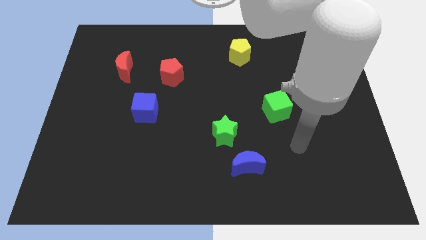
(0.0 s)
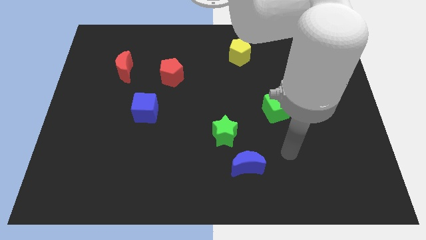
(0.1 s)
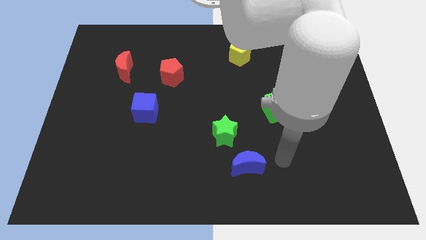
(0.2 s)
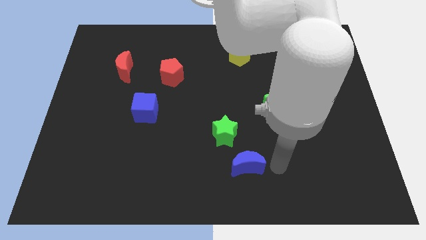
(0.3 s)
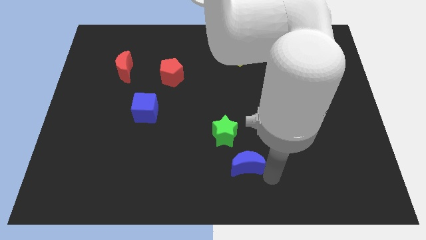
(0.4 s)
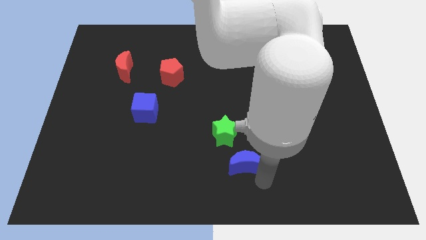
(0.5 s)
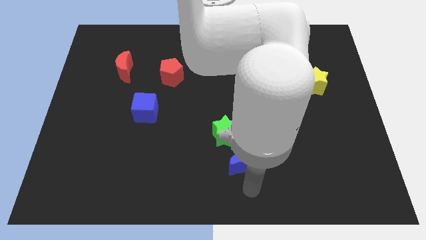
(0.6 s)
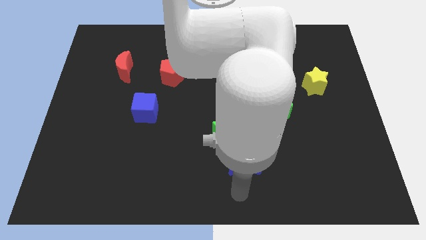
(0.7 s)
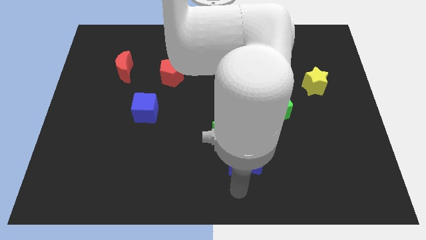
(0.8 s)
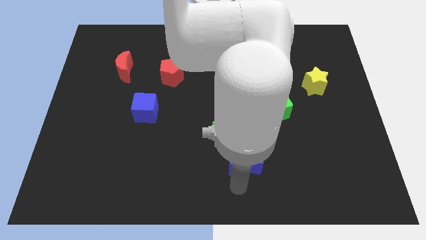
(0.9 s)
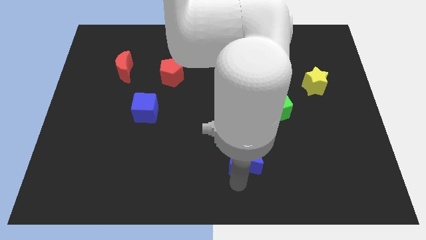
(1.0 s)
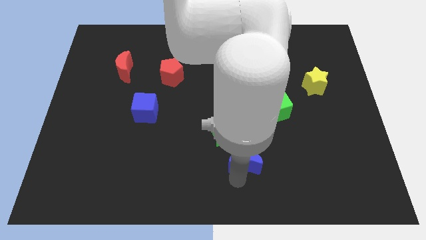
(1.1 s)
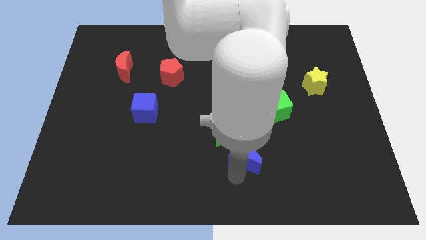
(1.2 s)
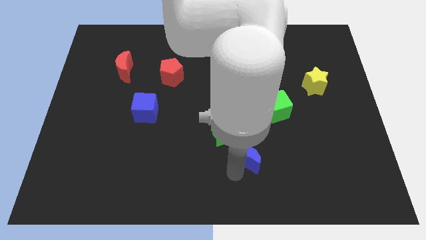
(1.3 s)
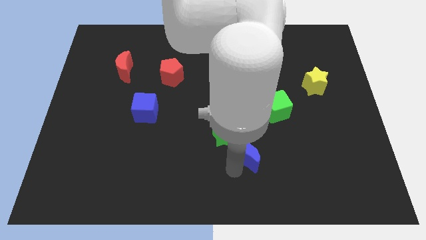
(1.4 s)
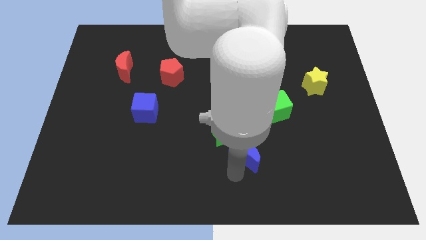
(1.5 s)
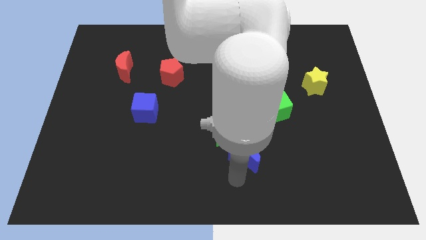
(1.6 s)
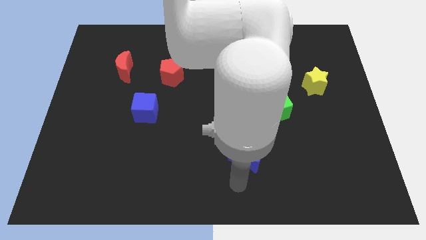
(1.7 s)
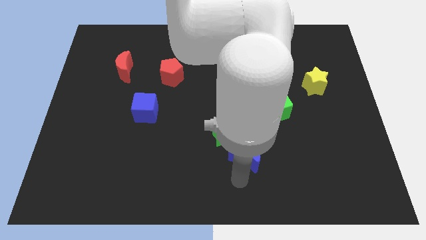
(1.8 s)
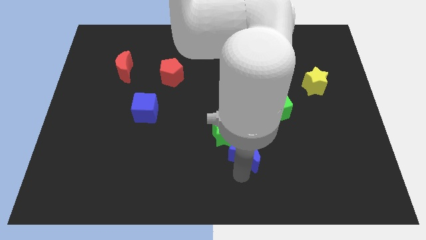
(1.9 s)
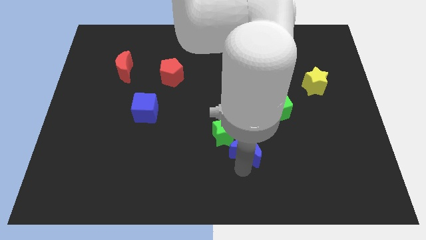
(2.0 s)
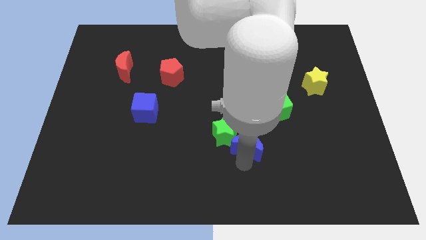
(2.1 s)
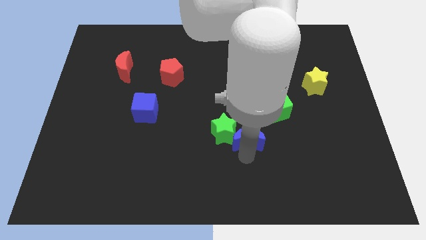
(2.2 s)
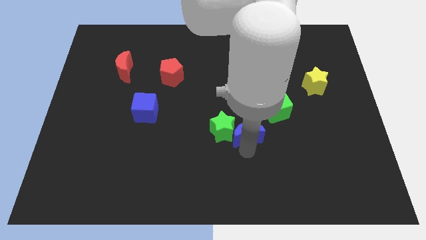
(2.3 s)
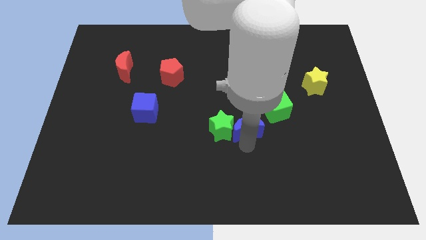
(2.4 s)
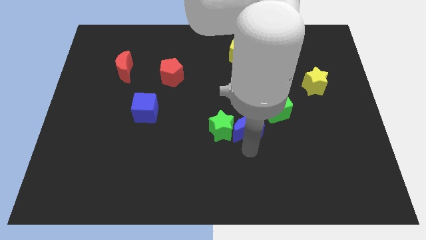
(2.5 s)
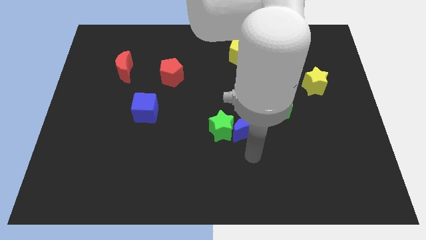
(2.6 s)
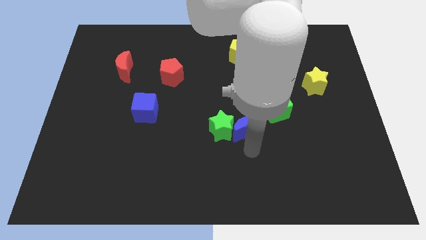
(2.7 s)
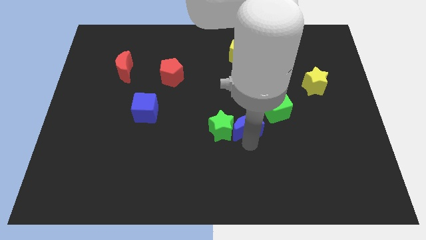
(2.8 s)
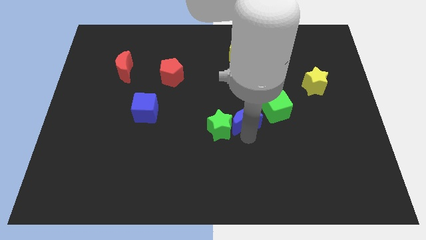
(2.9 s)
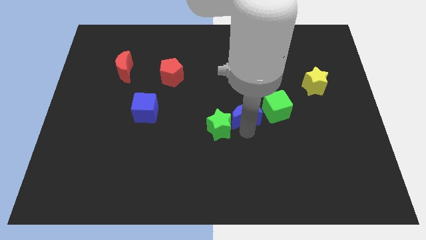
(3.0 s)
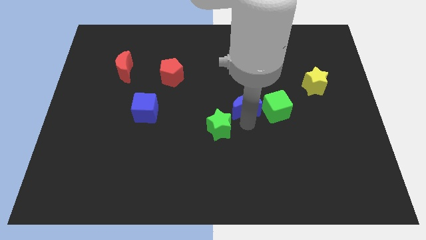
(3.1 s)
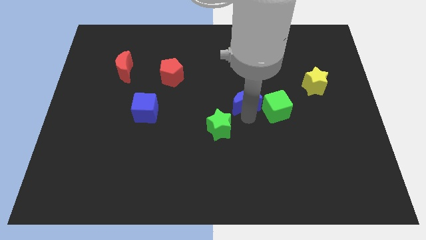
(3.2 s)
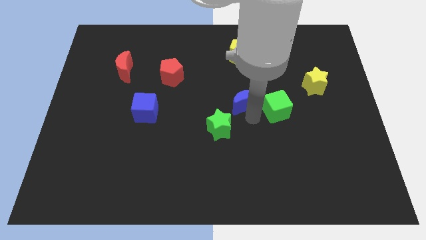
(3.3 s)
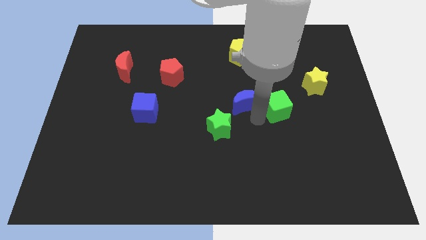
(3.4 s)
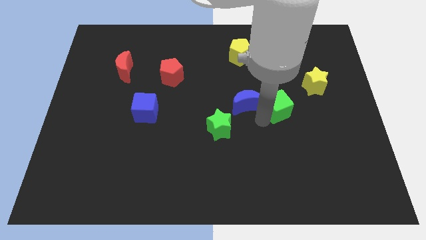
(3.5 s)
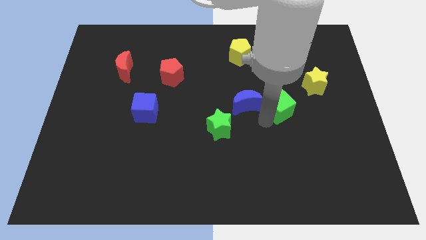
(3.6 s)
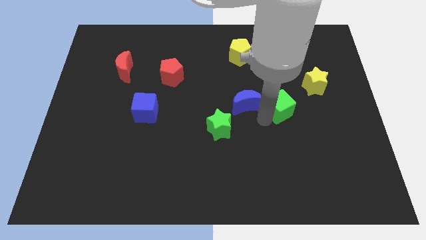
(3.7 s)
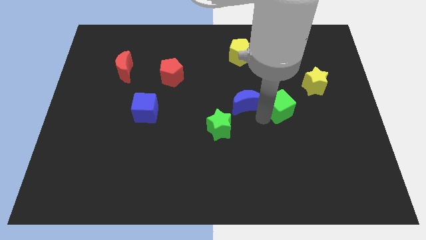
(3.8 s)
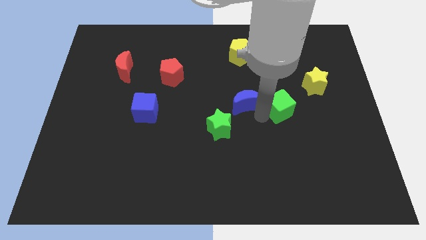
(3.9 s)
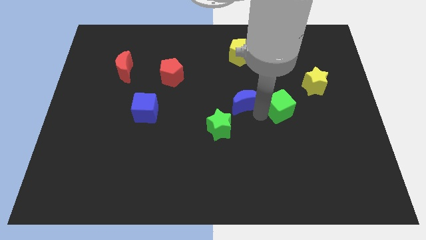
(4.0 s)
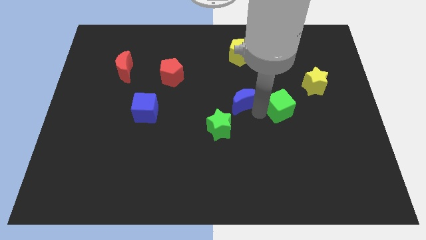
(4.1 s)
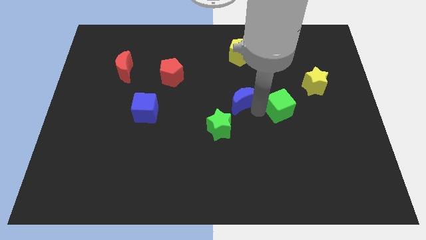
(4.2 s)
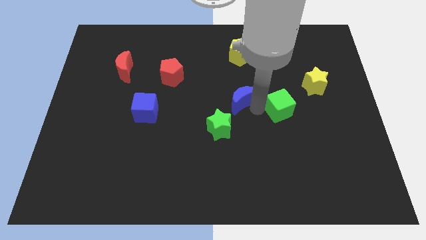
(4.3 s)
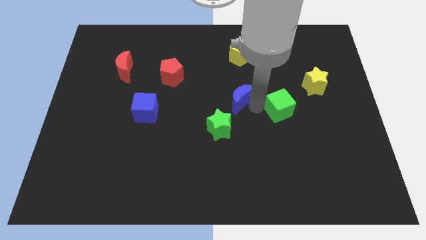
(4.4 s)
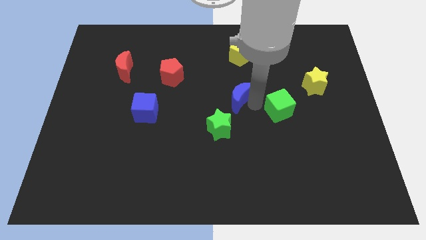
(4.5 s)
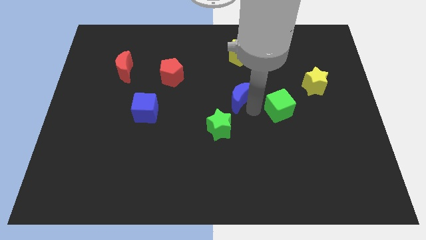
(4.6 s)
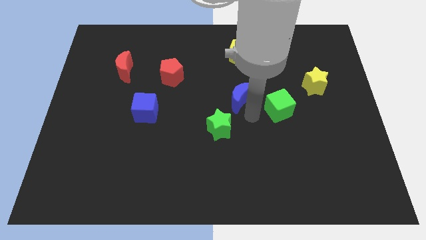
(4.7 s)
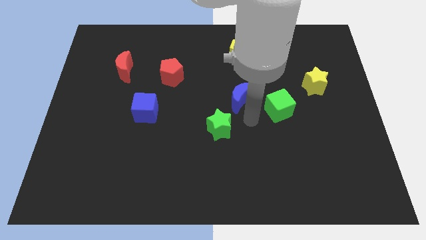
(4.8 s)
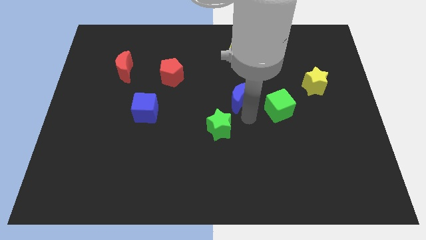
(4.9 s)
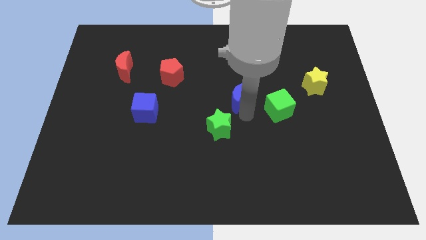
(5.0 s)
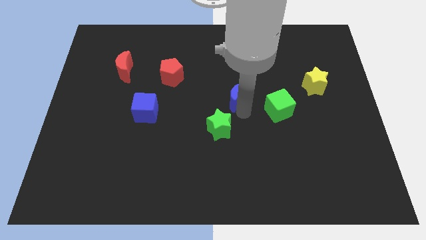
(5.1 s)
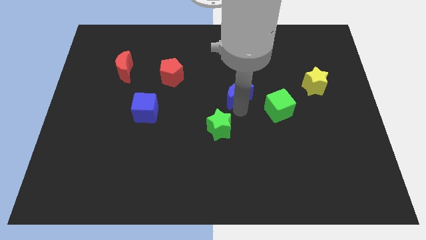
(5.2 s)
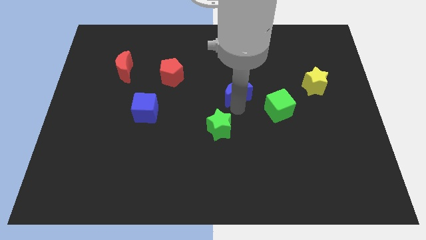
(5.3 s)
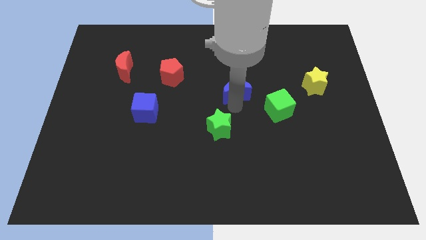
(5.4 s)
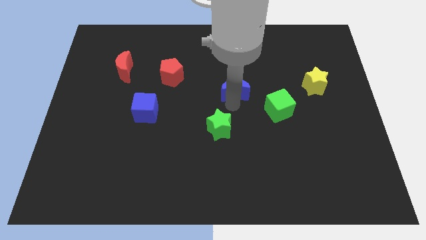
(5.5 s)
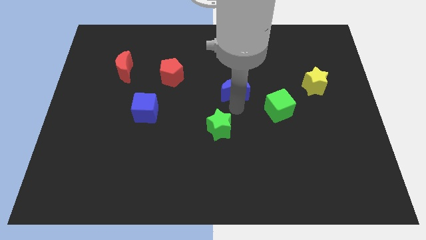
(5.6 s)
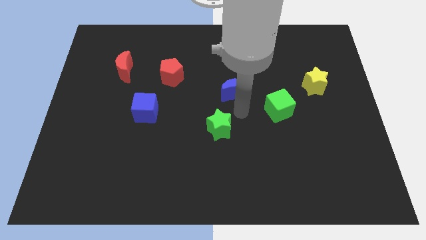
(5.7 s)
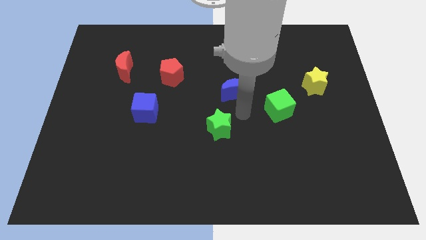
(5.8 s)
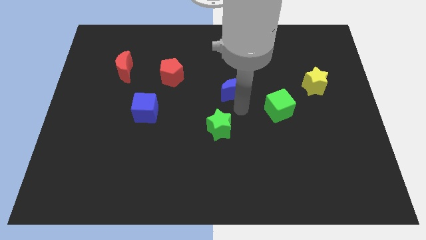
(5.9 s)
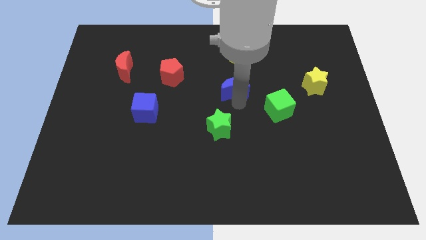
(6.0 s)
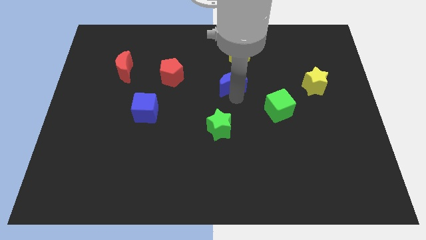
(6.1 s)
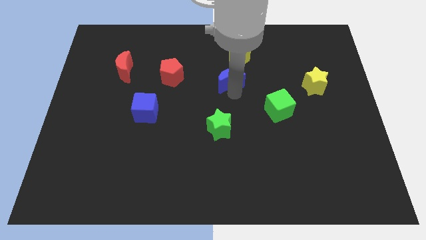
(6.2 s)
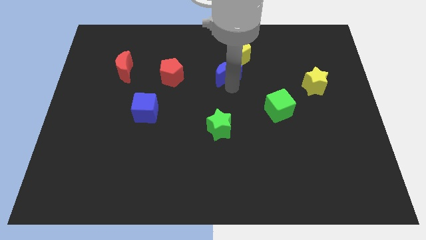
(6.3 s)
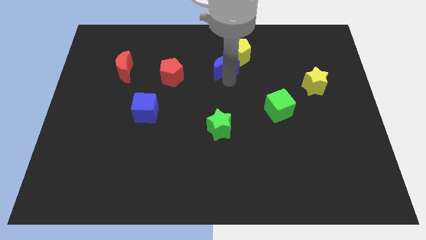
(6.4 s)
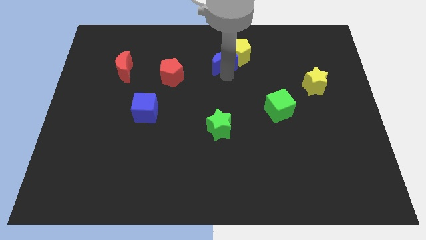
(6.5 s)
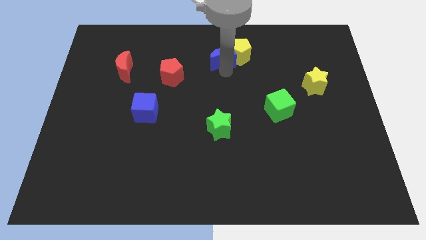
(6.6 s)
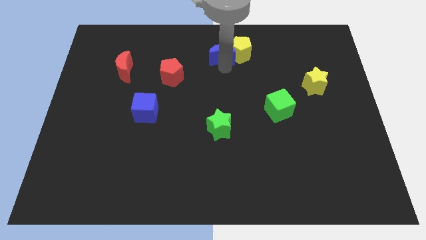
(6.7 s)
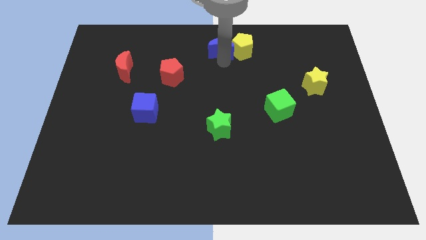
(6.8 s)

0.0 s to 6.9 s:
slide the blue moon to the top
